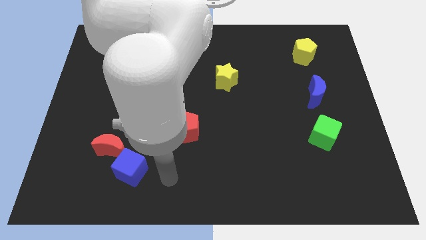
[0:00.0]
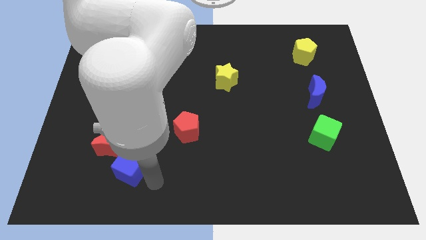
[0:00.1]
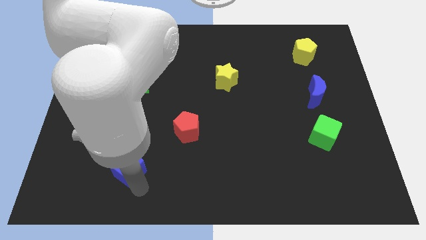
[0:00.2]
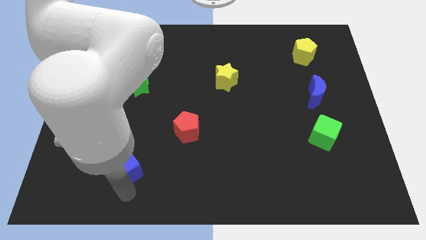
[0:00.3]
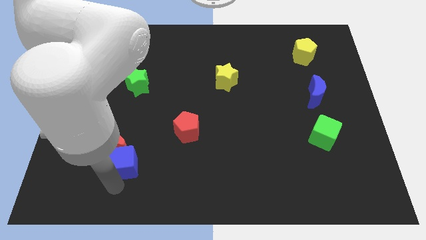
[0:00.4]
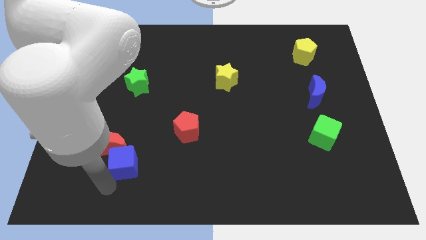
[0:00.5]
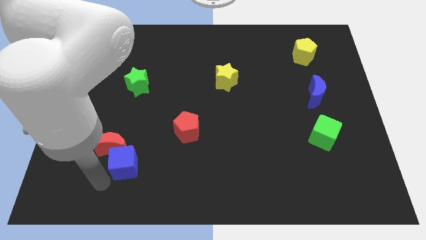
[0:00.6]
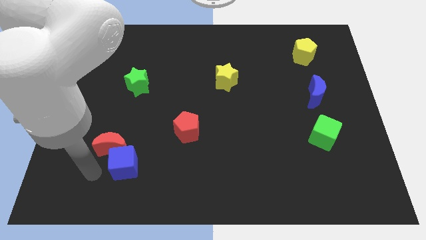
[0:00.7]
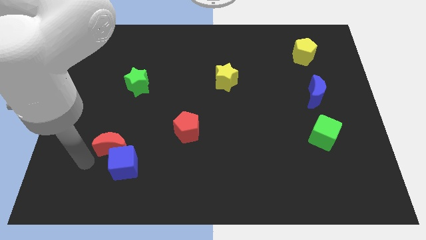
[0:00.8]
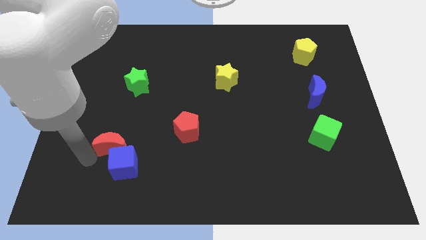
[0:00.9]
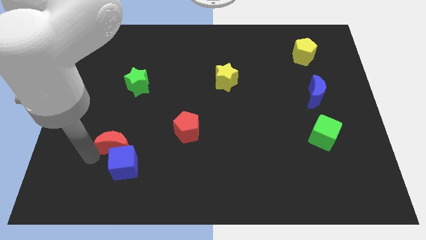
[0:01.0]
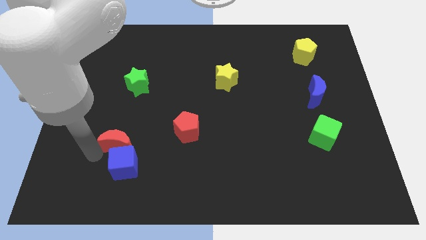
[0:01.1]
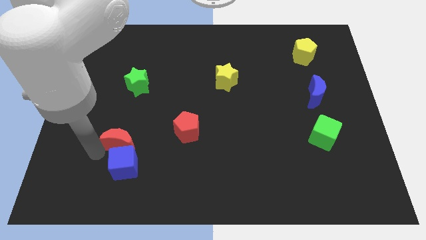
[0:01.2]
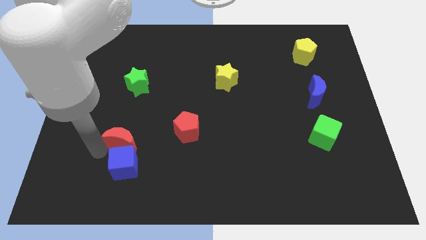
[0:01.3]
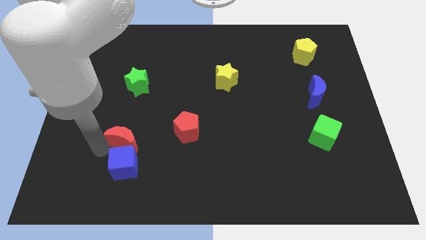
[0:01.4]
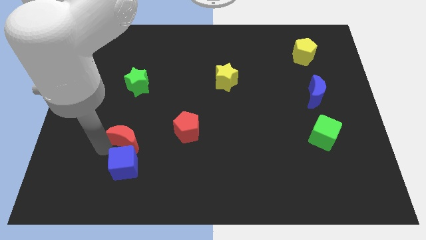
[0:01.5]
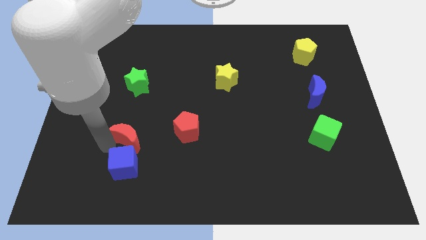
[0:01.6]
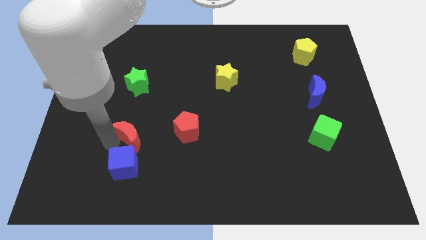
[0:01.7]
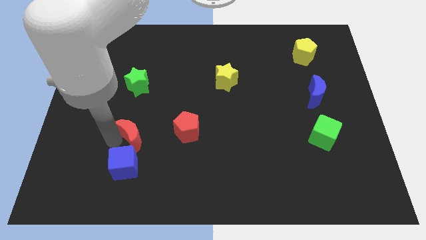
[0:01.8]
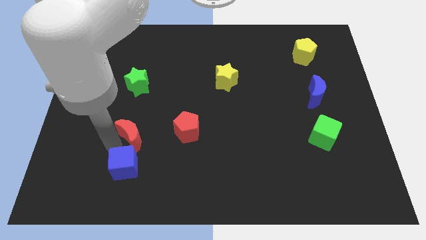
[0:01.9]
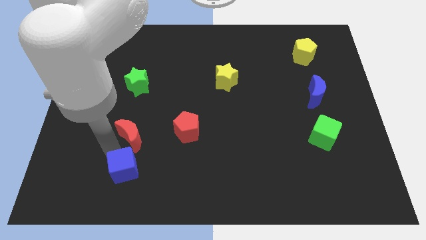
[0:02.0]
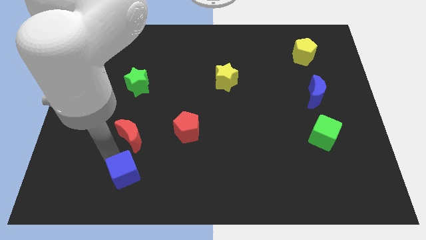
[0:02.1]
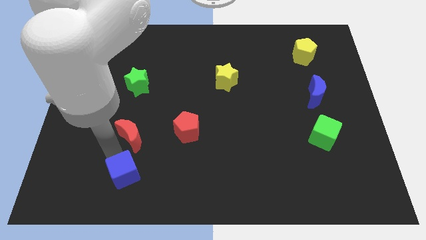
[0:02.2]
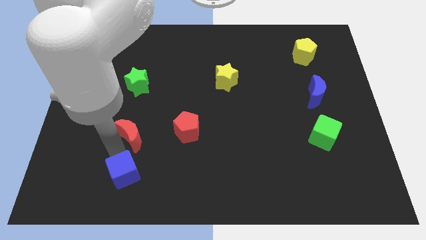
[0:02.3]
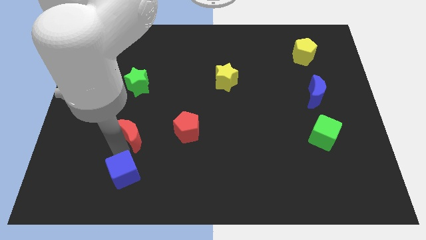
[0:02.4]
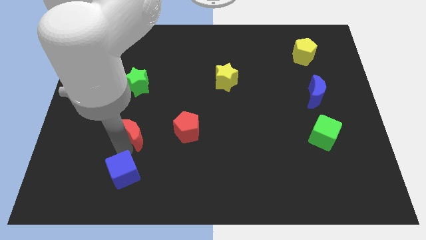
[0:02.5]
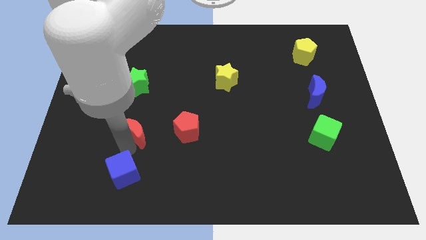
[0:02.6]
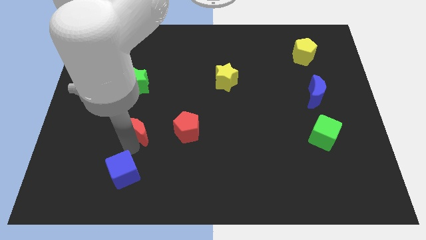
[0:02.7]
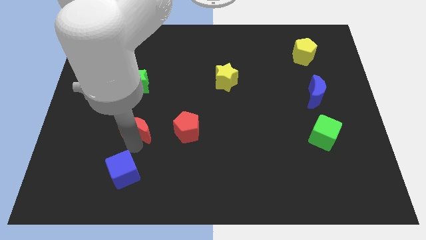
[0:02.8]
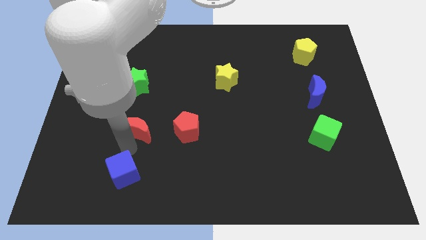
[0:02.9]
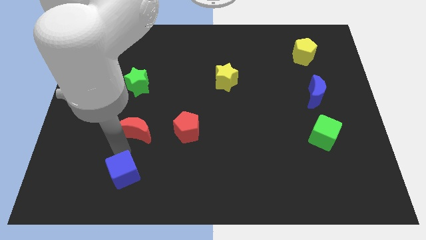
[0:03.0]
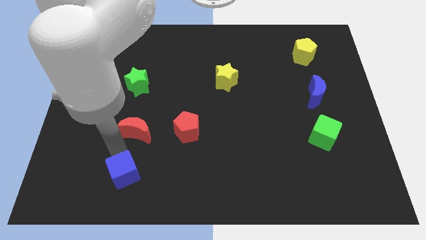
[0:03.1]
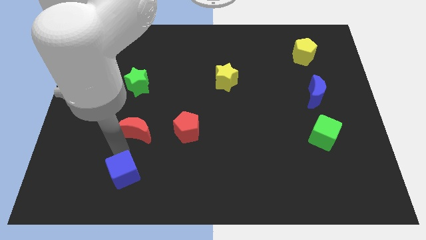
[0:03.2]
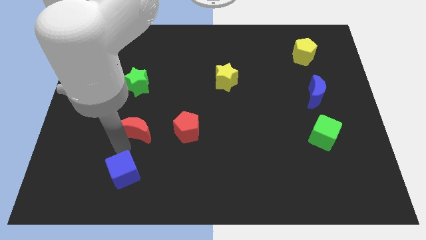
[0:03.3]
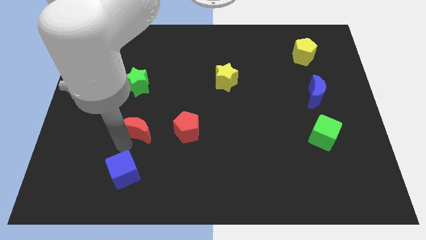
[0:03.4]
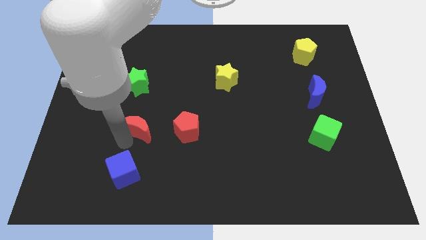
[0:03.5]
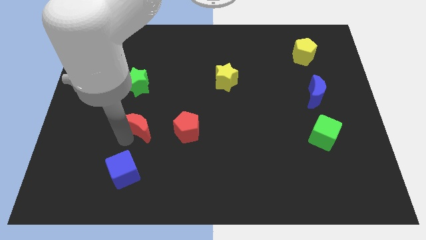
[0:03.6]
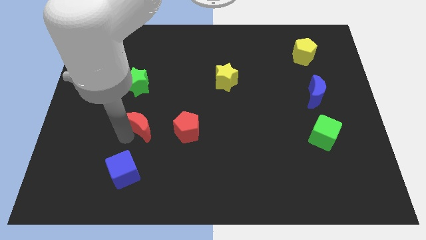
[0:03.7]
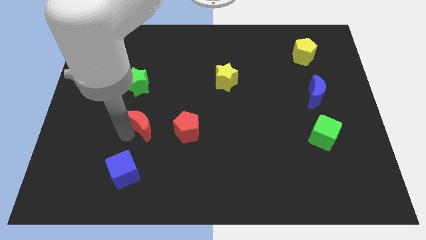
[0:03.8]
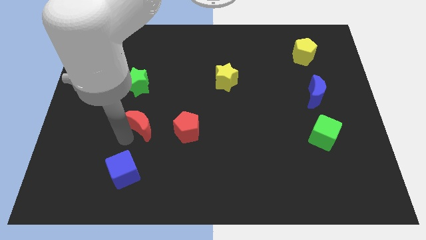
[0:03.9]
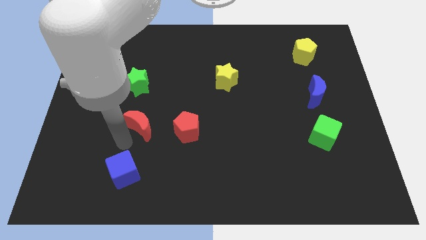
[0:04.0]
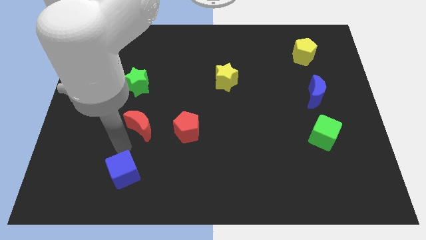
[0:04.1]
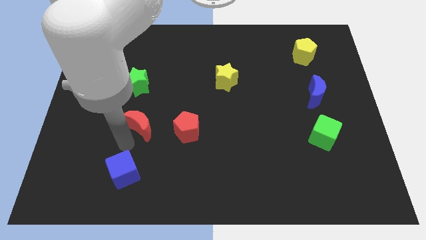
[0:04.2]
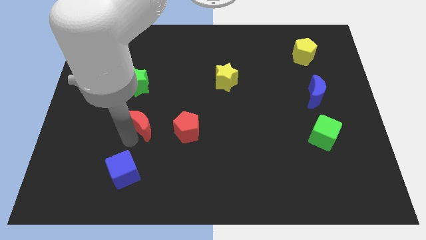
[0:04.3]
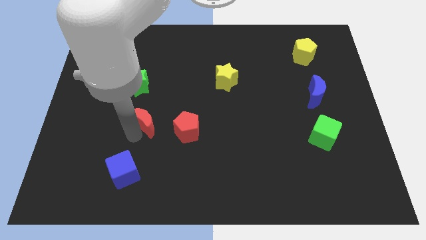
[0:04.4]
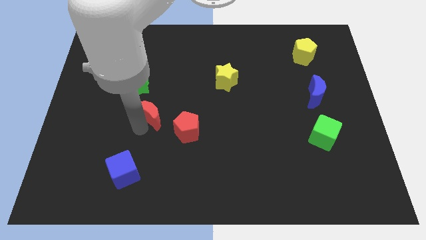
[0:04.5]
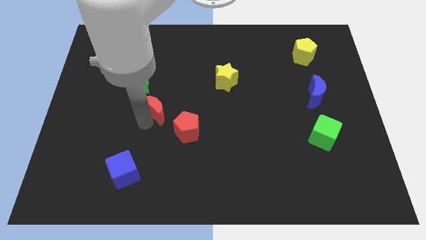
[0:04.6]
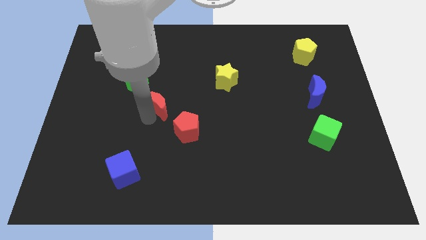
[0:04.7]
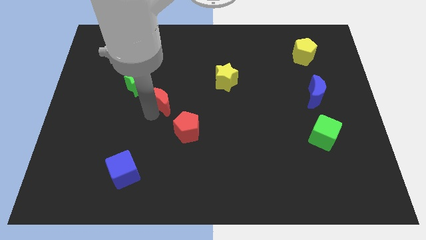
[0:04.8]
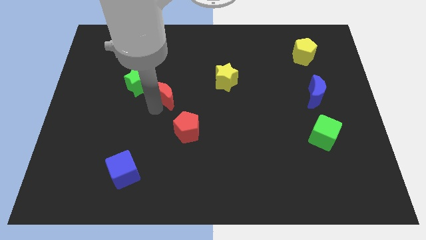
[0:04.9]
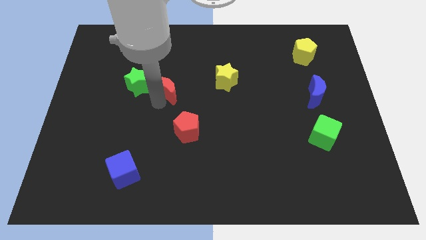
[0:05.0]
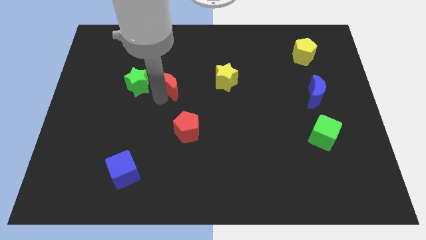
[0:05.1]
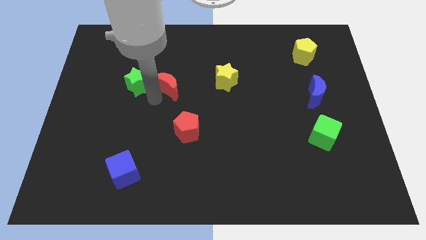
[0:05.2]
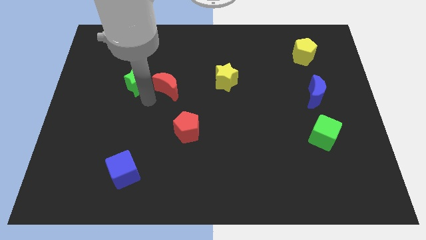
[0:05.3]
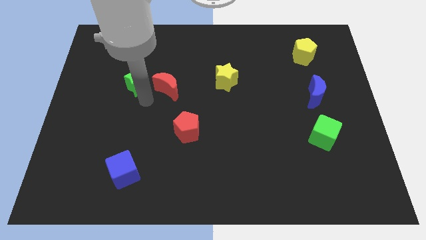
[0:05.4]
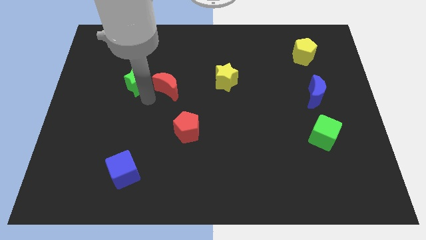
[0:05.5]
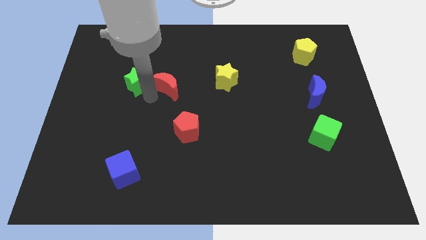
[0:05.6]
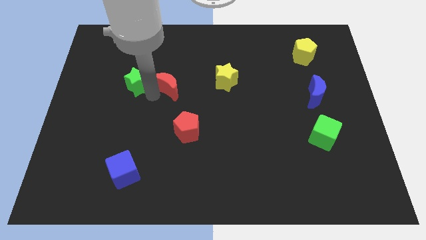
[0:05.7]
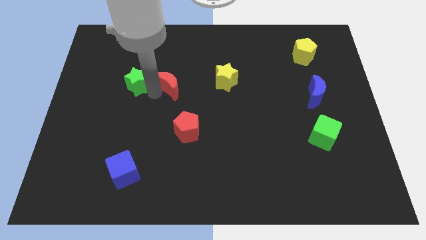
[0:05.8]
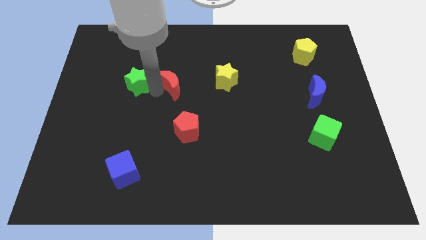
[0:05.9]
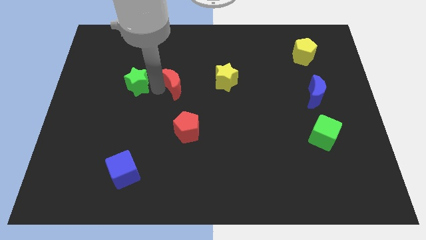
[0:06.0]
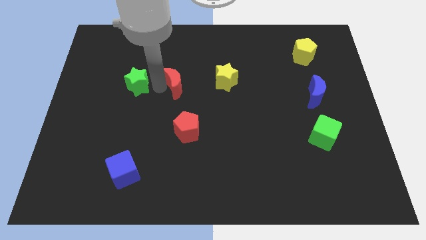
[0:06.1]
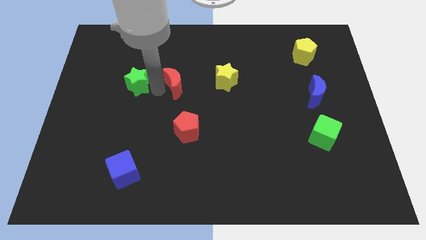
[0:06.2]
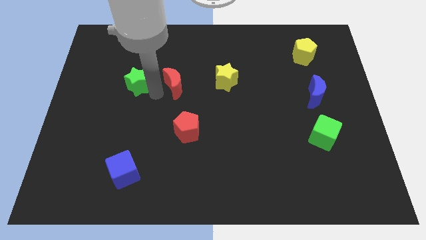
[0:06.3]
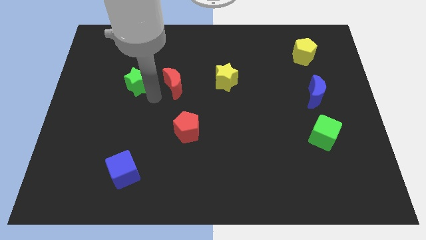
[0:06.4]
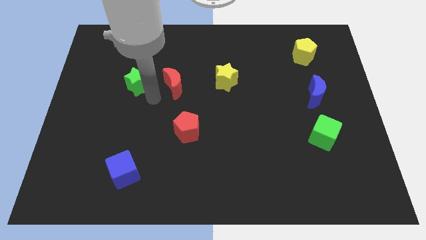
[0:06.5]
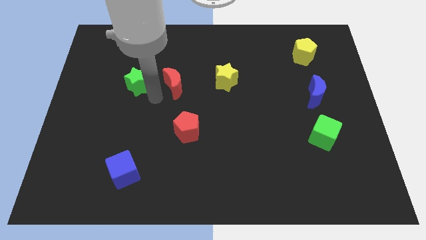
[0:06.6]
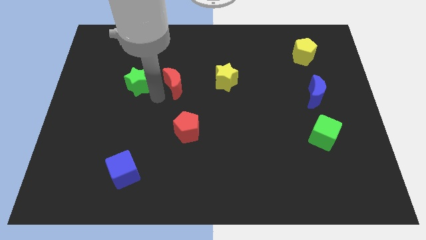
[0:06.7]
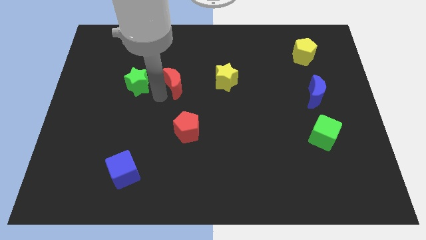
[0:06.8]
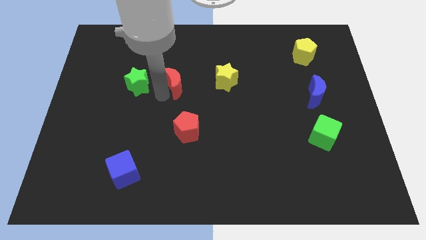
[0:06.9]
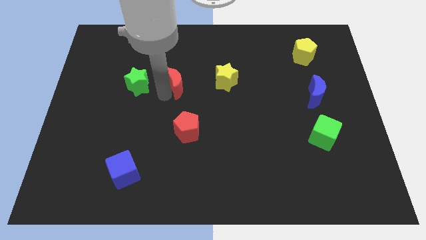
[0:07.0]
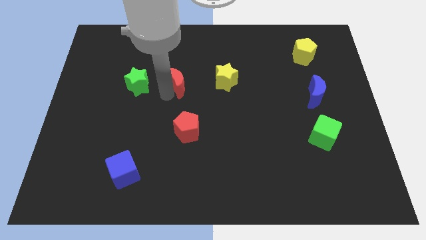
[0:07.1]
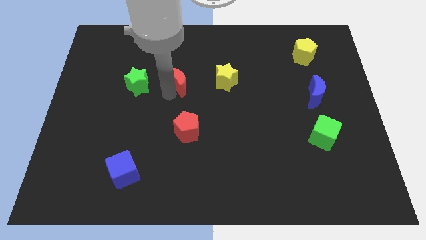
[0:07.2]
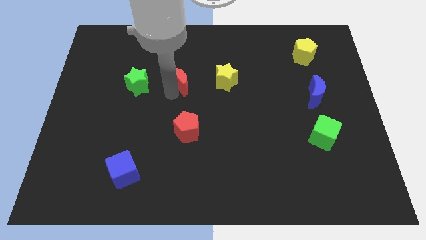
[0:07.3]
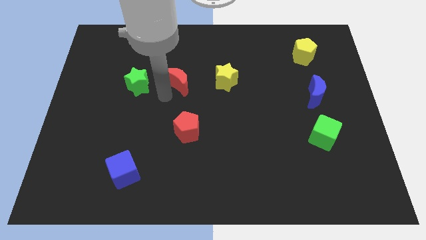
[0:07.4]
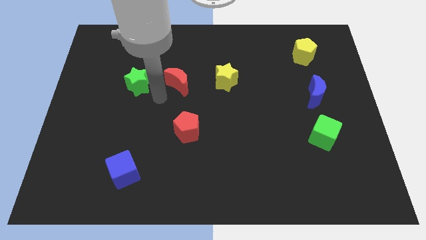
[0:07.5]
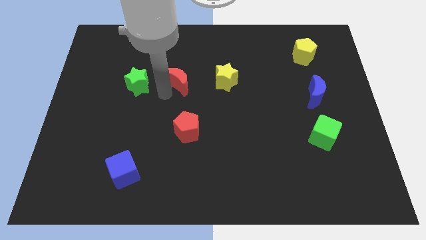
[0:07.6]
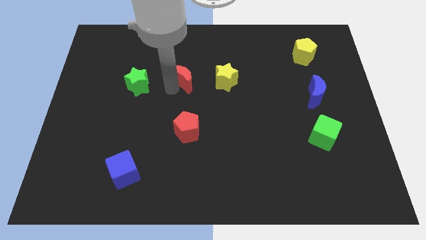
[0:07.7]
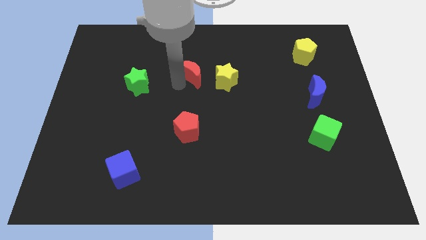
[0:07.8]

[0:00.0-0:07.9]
slide the red moon to the top left of the yellow star
